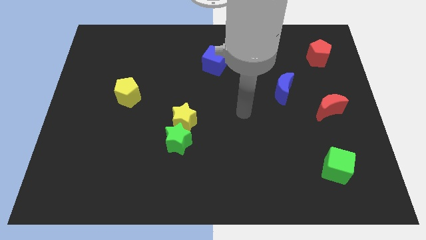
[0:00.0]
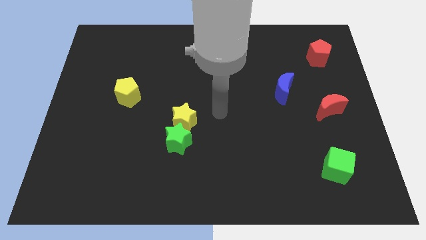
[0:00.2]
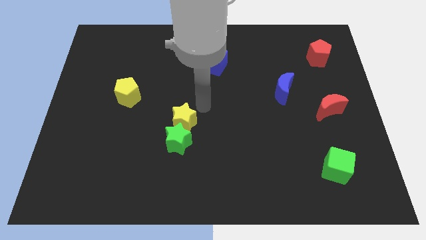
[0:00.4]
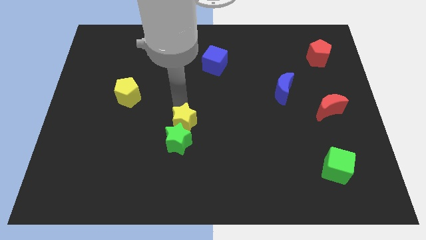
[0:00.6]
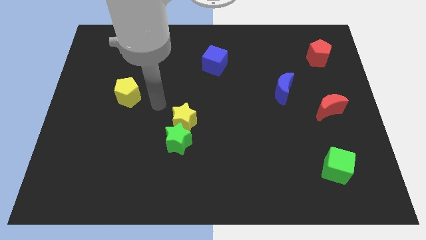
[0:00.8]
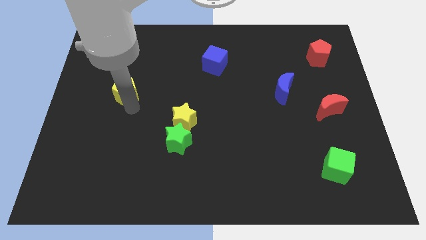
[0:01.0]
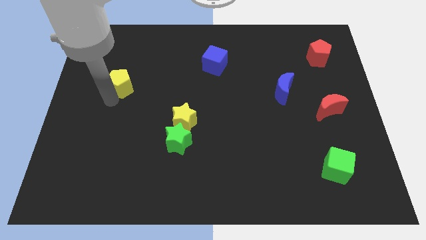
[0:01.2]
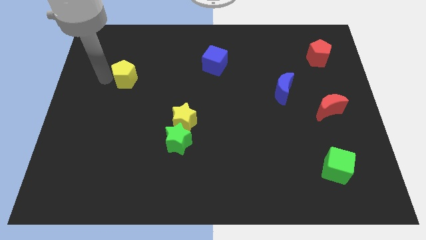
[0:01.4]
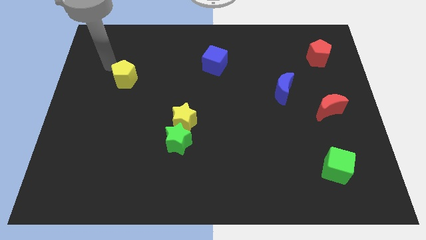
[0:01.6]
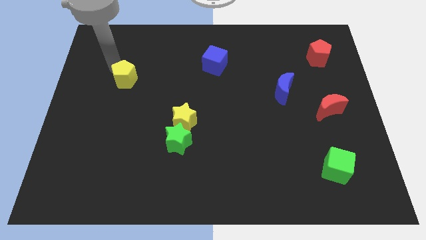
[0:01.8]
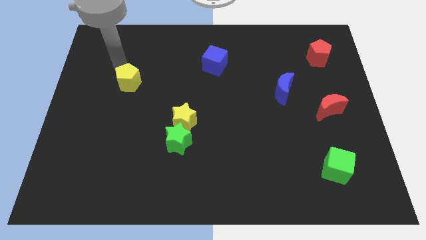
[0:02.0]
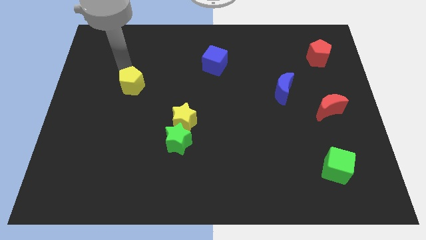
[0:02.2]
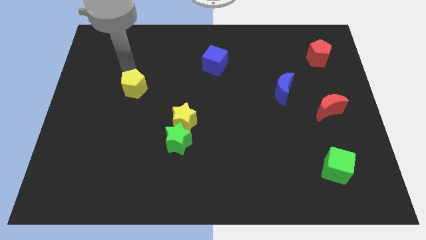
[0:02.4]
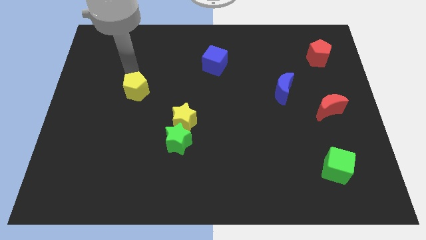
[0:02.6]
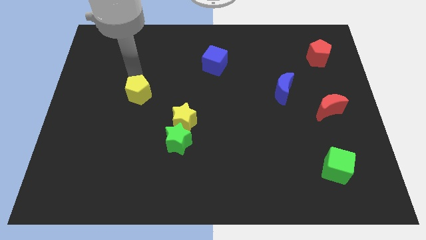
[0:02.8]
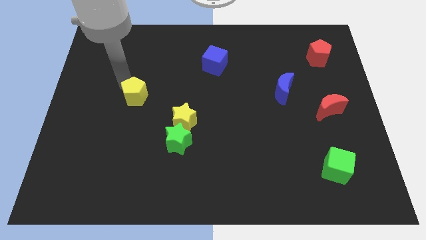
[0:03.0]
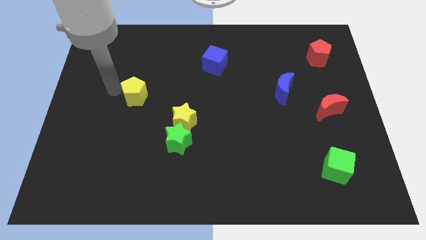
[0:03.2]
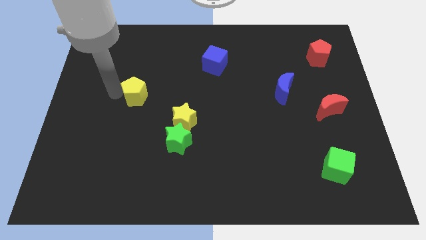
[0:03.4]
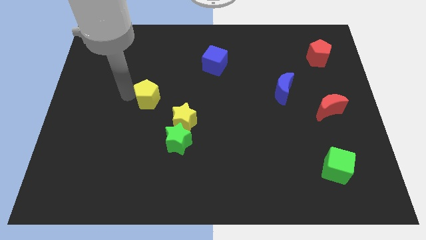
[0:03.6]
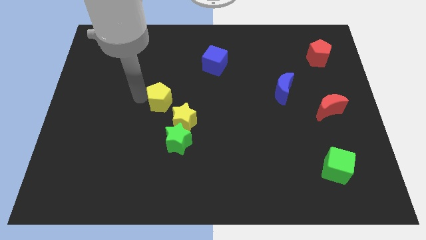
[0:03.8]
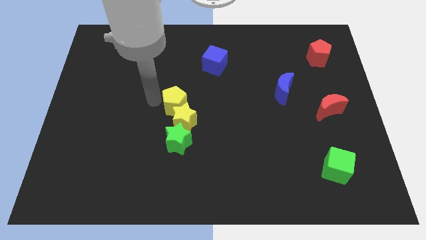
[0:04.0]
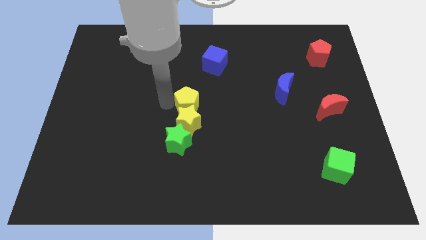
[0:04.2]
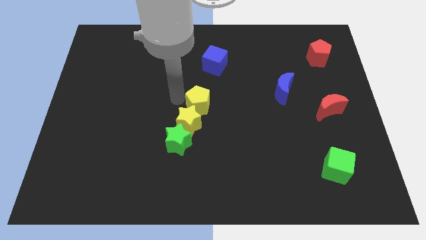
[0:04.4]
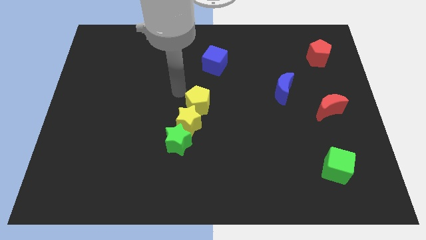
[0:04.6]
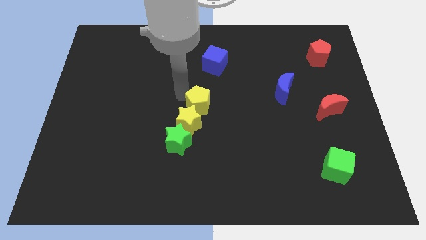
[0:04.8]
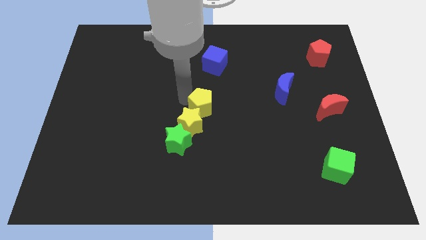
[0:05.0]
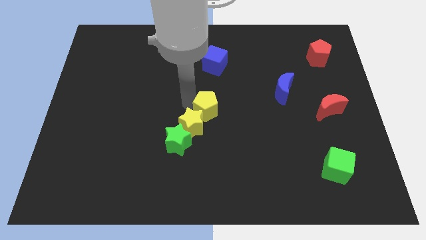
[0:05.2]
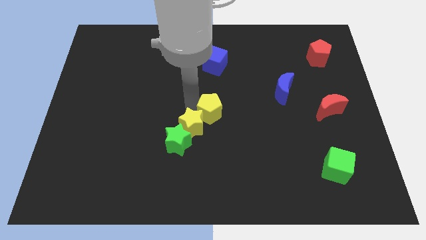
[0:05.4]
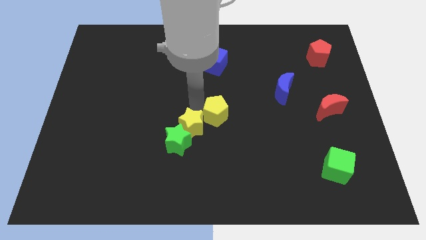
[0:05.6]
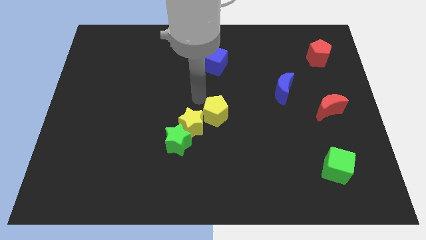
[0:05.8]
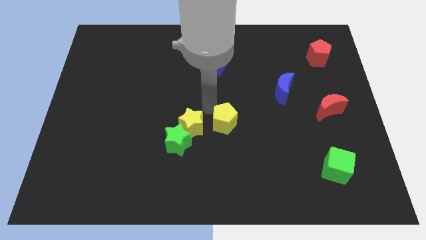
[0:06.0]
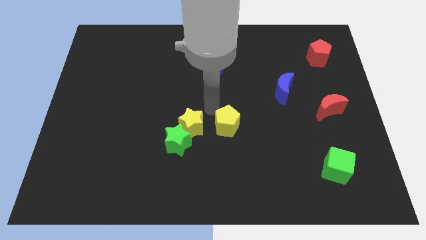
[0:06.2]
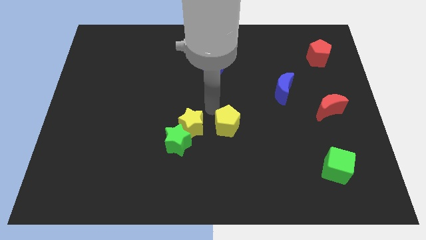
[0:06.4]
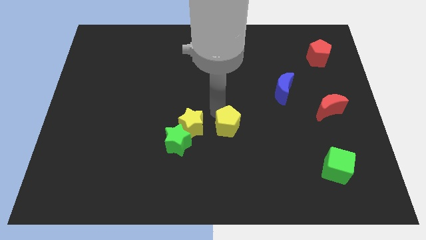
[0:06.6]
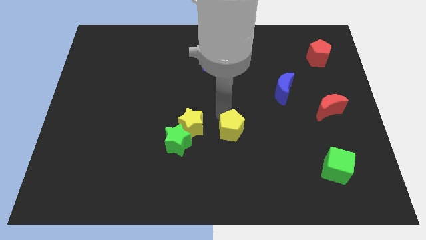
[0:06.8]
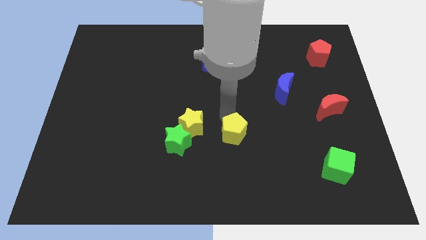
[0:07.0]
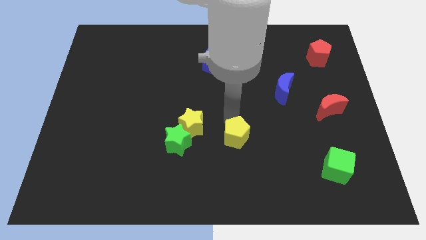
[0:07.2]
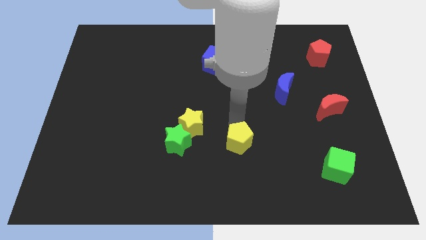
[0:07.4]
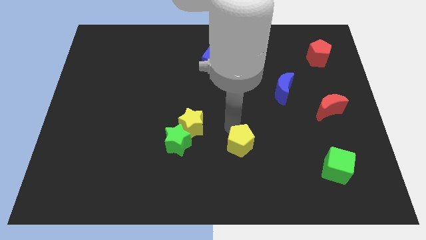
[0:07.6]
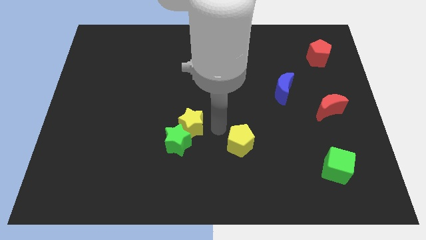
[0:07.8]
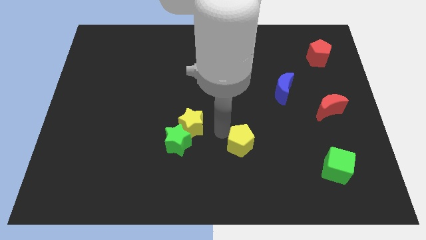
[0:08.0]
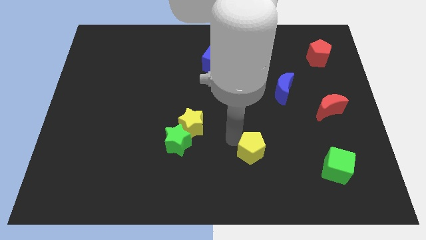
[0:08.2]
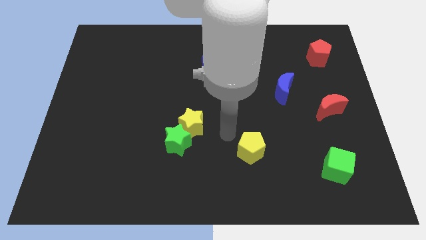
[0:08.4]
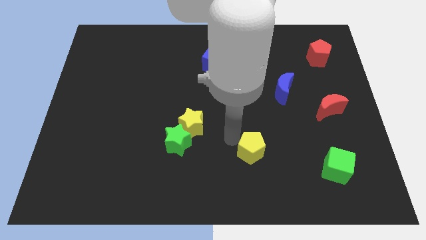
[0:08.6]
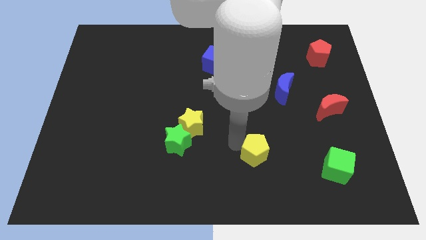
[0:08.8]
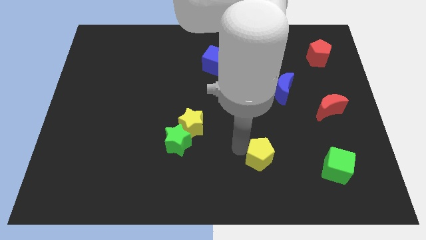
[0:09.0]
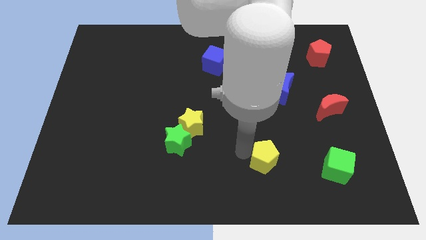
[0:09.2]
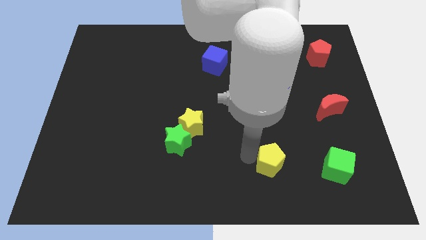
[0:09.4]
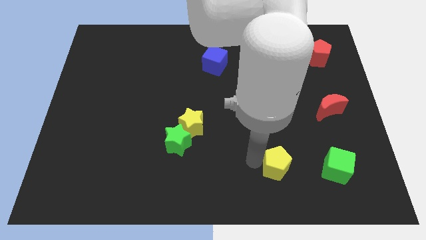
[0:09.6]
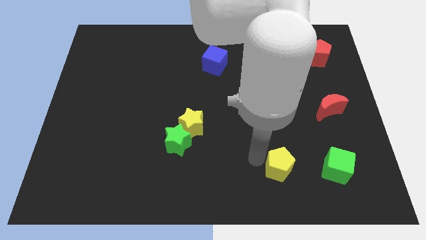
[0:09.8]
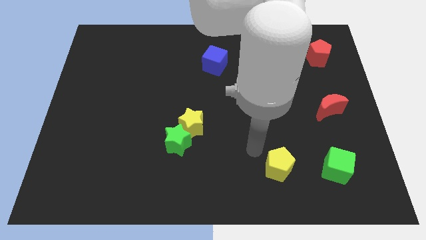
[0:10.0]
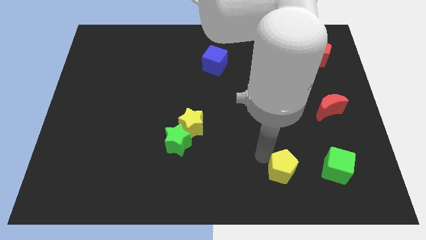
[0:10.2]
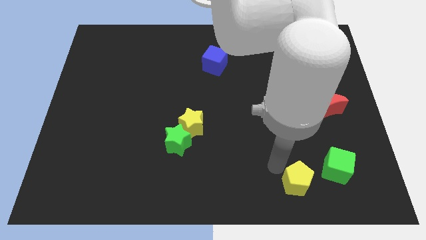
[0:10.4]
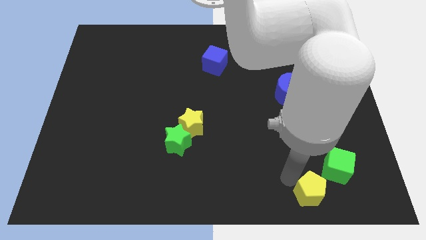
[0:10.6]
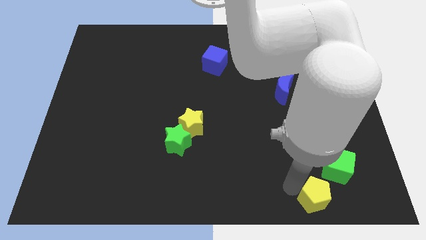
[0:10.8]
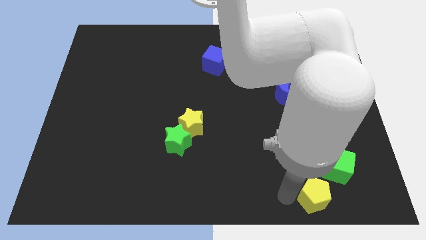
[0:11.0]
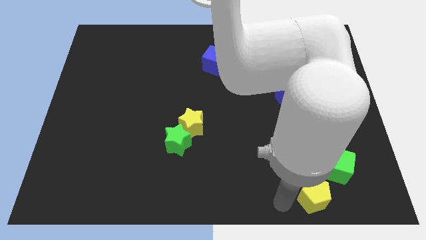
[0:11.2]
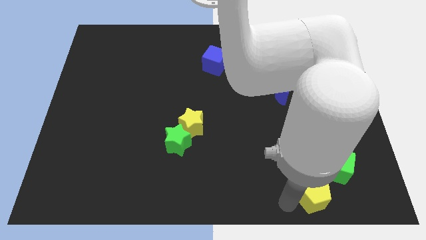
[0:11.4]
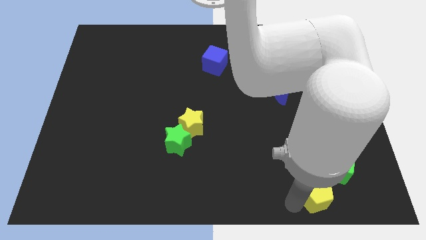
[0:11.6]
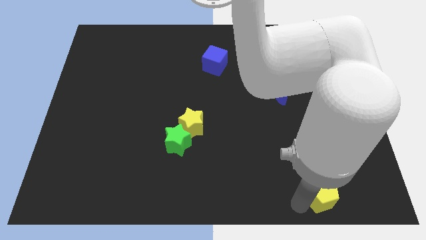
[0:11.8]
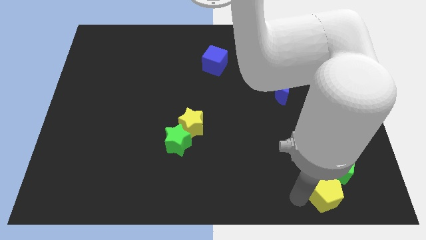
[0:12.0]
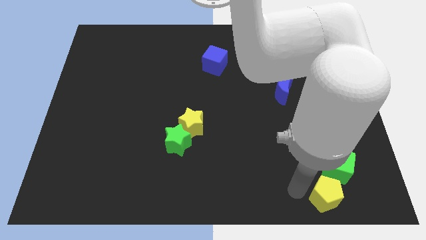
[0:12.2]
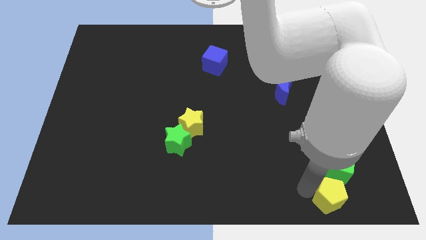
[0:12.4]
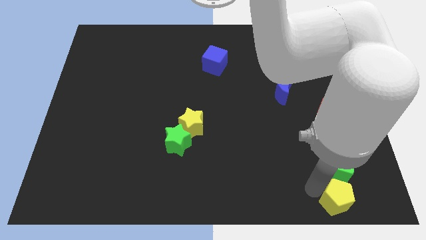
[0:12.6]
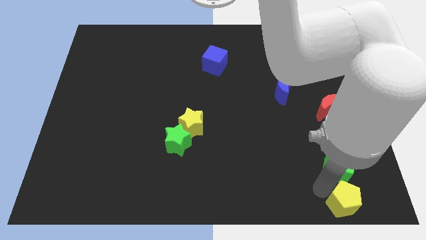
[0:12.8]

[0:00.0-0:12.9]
slide the yellow pentagon to the bottom right of the board
